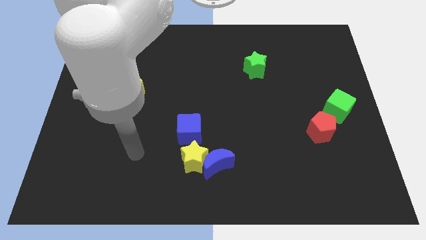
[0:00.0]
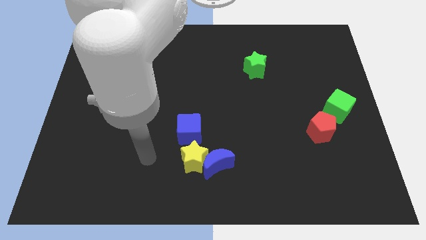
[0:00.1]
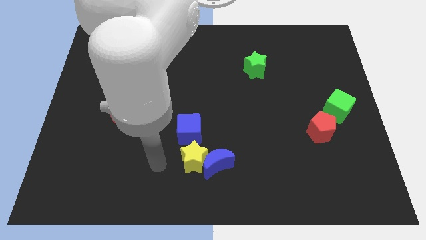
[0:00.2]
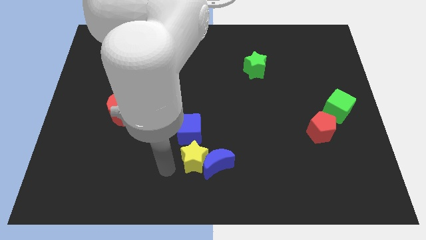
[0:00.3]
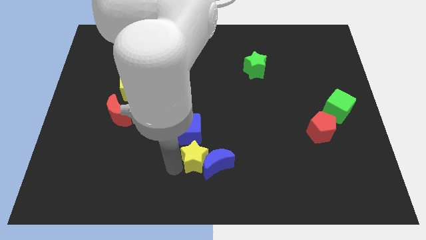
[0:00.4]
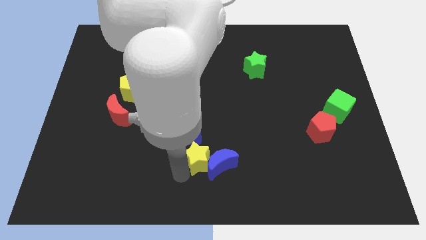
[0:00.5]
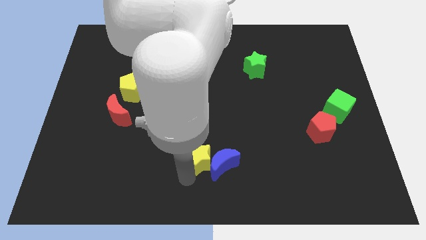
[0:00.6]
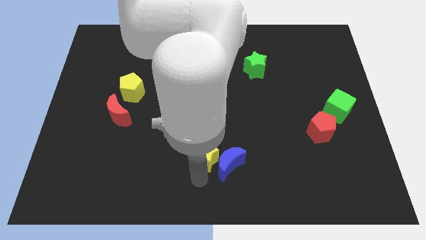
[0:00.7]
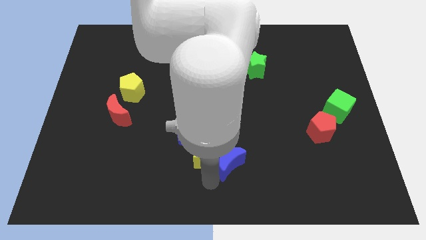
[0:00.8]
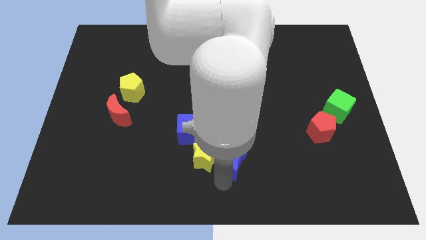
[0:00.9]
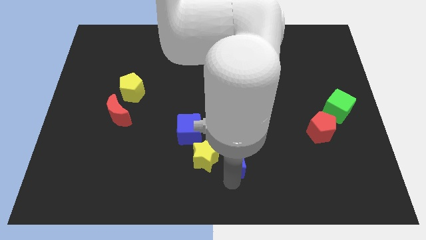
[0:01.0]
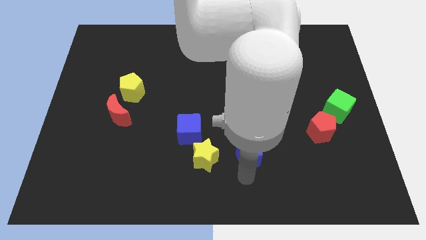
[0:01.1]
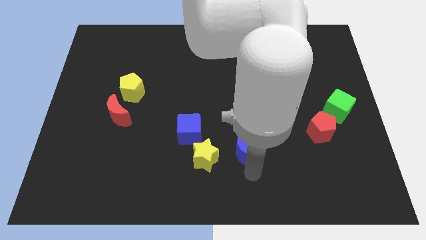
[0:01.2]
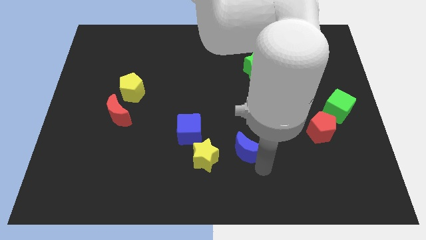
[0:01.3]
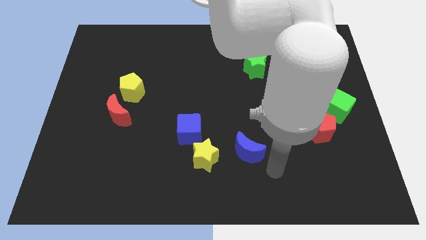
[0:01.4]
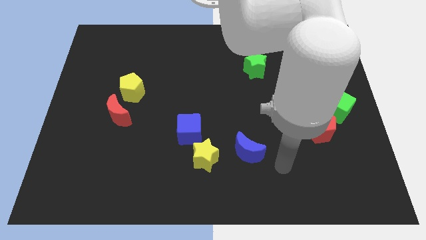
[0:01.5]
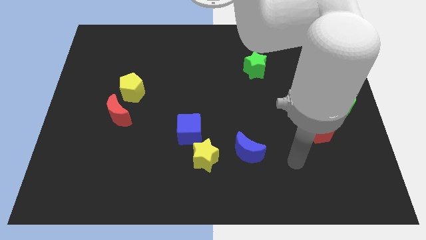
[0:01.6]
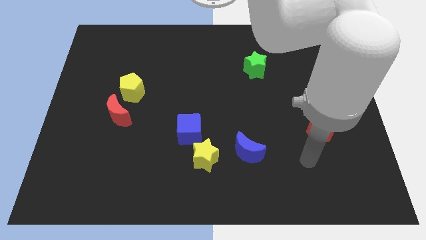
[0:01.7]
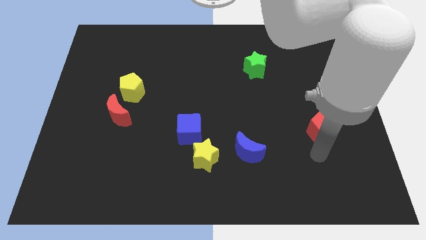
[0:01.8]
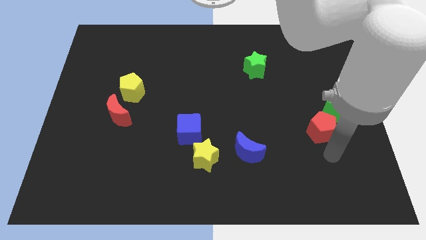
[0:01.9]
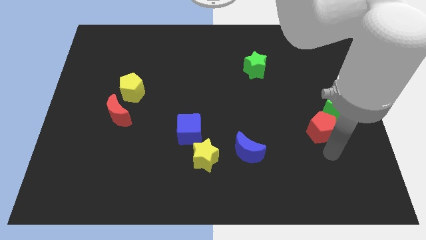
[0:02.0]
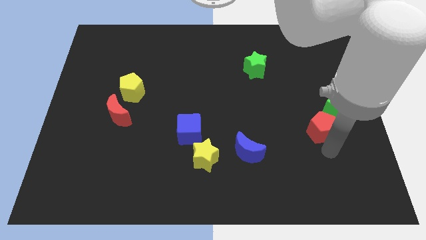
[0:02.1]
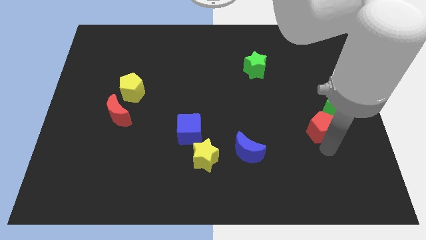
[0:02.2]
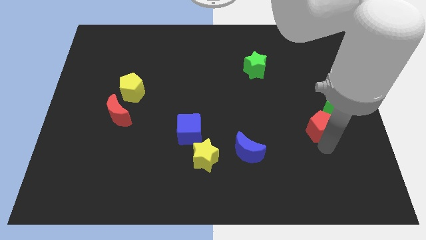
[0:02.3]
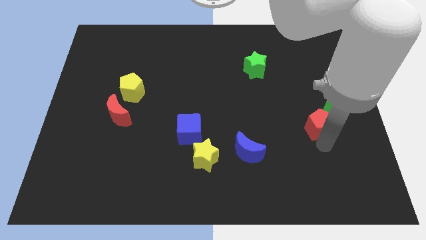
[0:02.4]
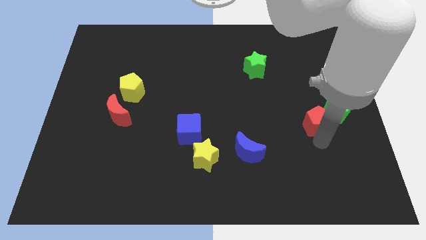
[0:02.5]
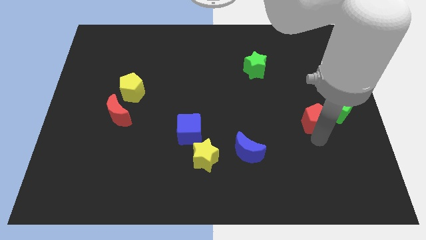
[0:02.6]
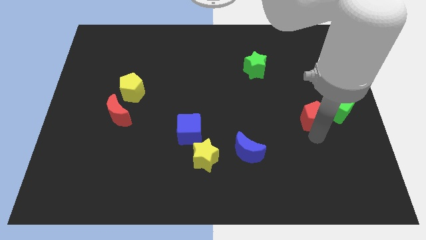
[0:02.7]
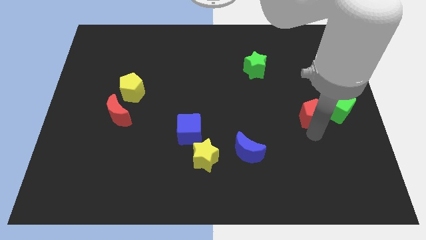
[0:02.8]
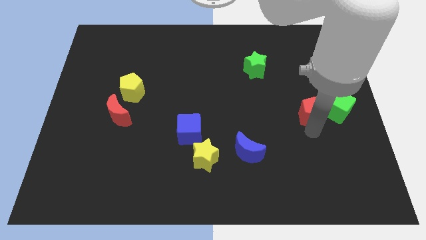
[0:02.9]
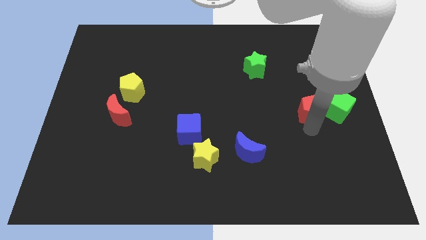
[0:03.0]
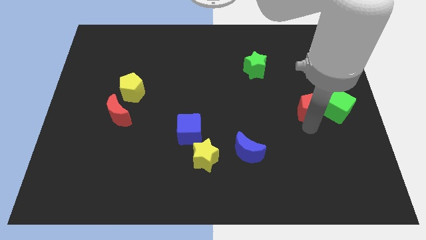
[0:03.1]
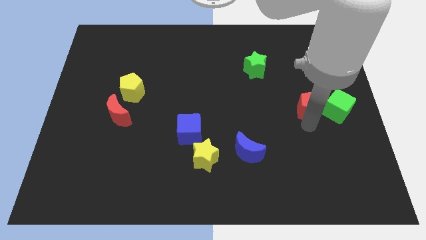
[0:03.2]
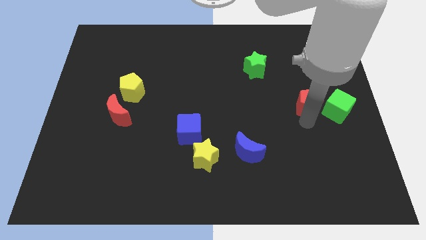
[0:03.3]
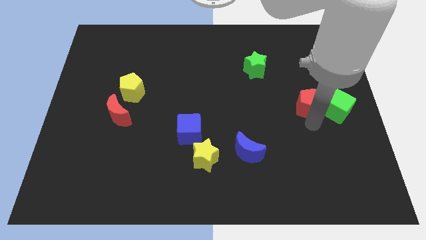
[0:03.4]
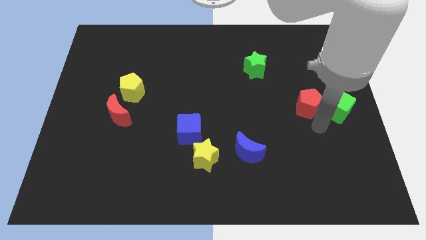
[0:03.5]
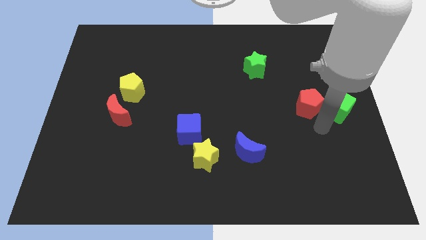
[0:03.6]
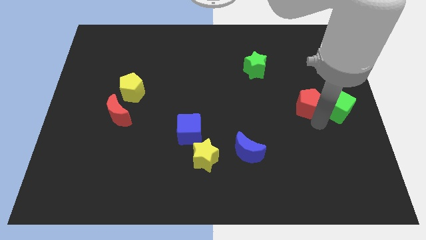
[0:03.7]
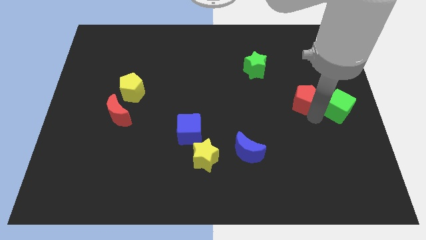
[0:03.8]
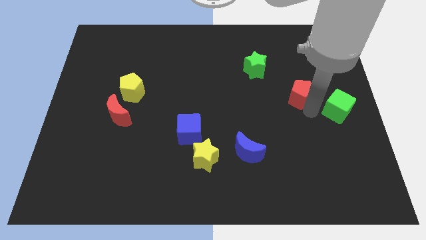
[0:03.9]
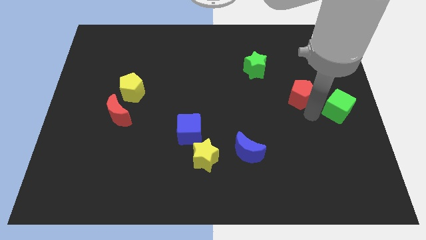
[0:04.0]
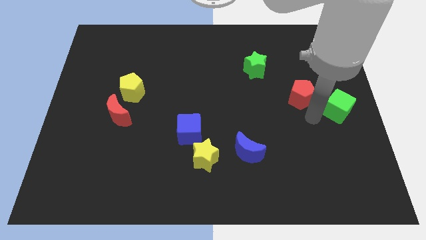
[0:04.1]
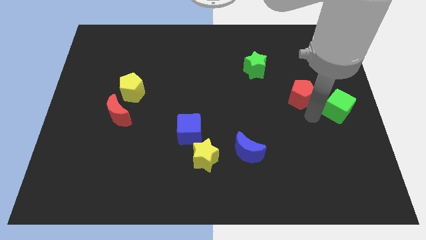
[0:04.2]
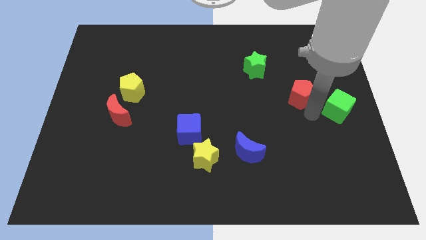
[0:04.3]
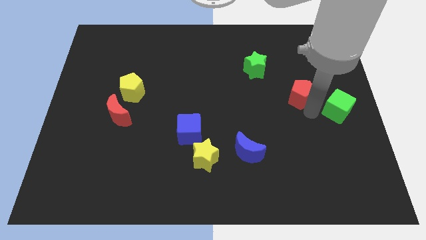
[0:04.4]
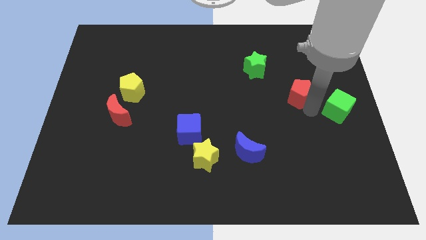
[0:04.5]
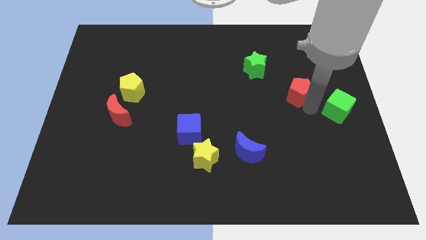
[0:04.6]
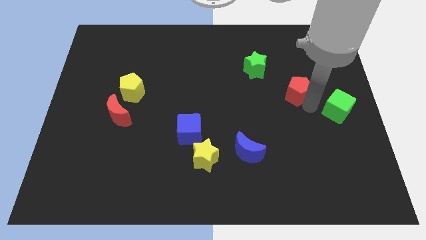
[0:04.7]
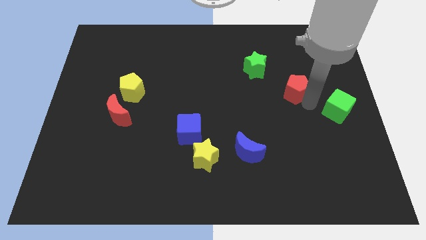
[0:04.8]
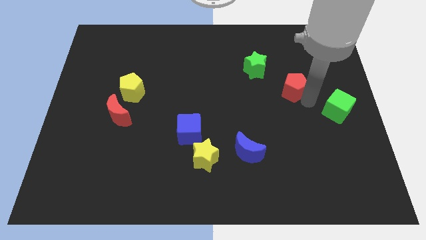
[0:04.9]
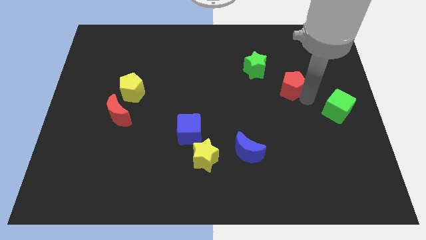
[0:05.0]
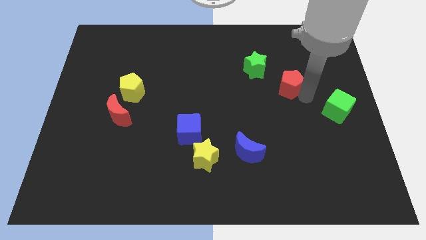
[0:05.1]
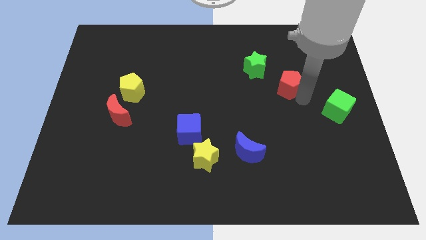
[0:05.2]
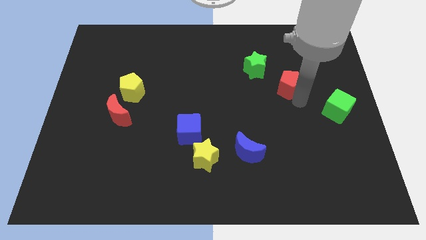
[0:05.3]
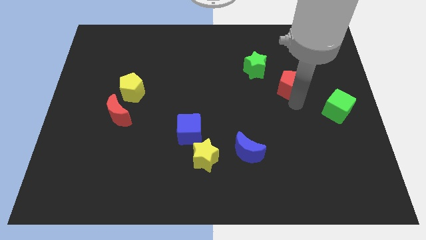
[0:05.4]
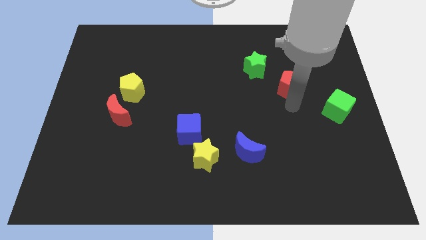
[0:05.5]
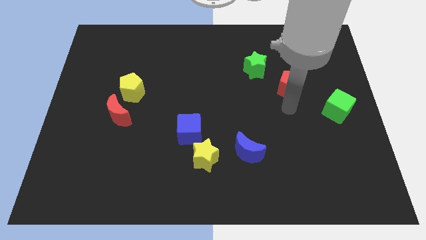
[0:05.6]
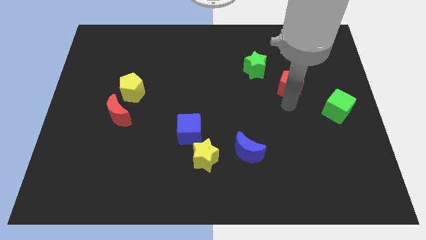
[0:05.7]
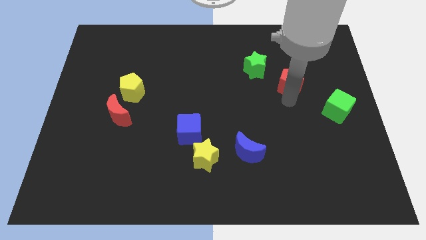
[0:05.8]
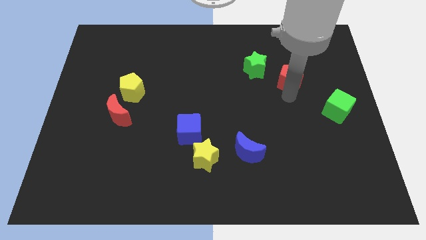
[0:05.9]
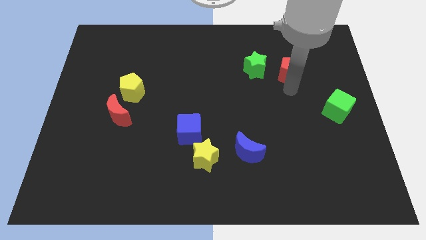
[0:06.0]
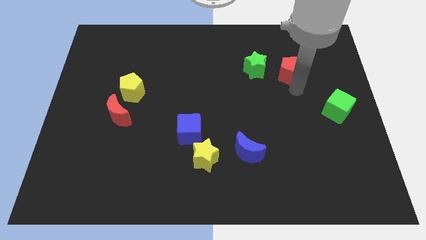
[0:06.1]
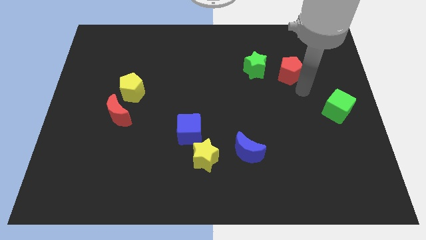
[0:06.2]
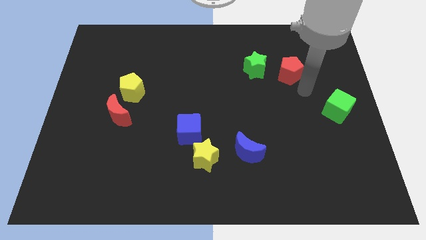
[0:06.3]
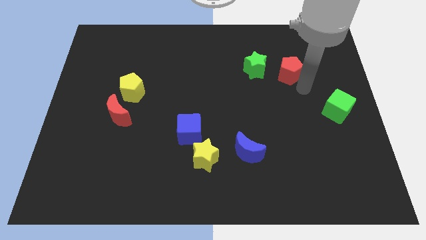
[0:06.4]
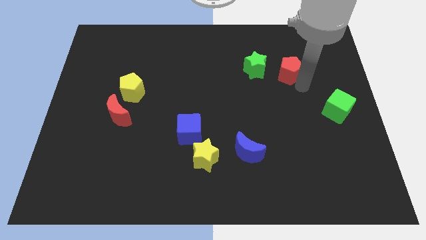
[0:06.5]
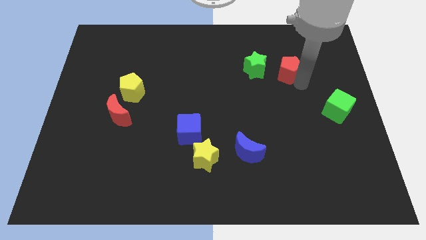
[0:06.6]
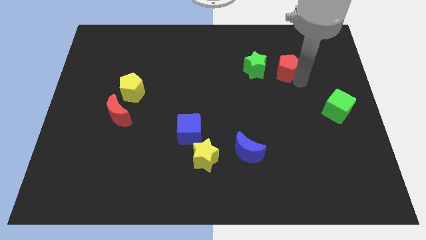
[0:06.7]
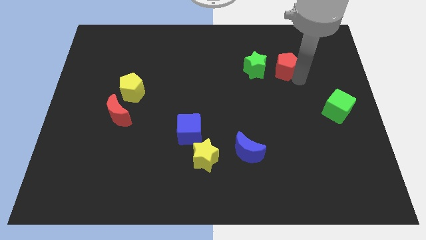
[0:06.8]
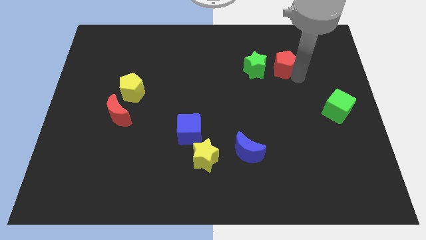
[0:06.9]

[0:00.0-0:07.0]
move the red pentagon to the top right side of the green star

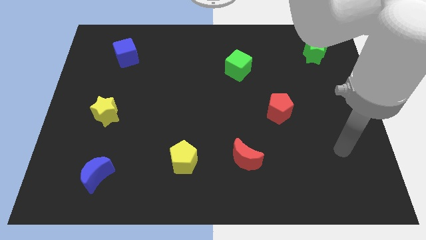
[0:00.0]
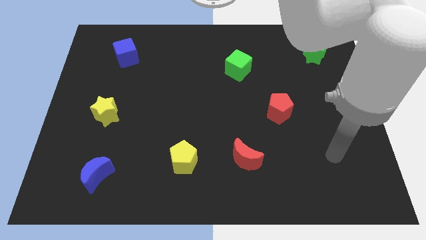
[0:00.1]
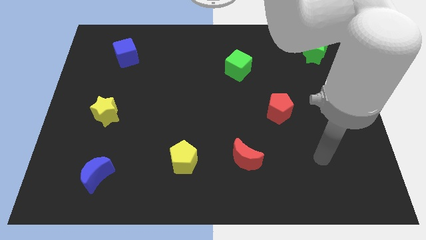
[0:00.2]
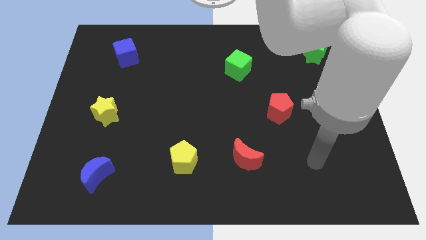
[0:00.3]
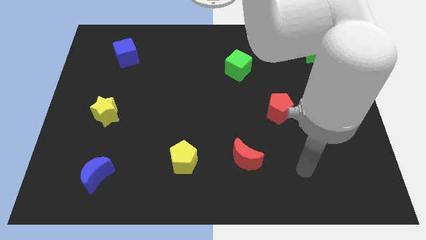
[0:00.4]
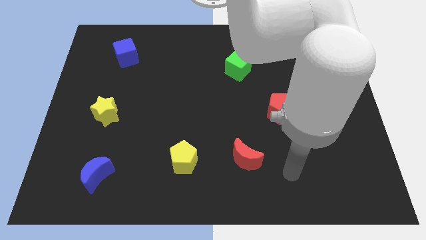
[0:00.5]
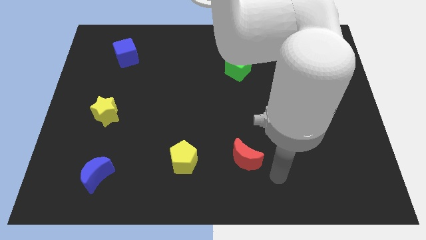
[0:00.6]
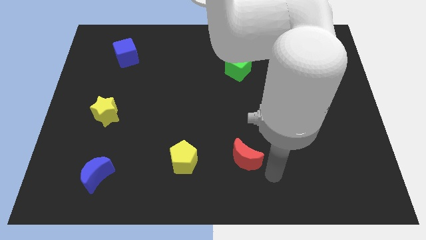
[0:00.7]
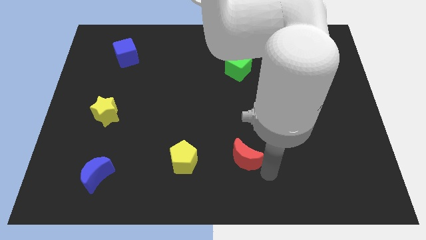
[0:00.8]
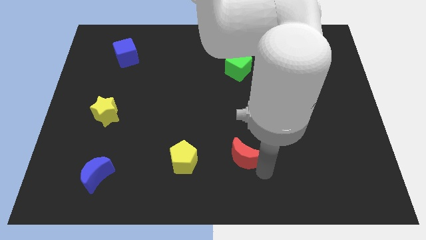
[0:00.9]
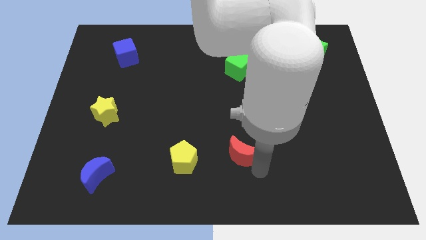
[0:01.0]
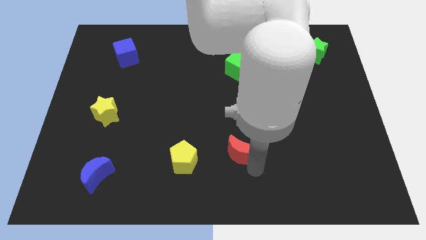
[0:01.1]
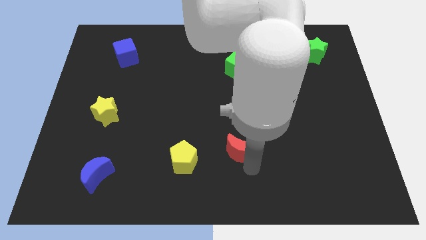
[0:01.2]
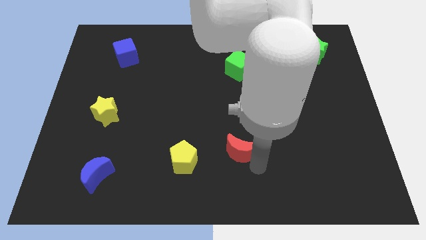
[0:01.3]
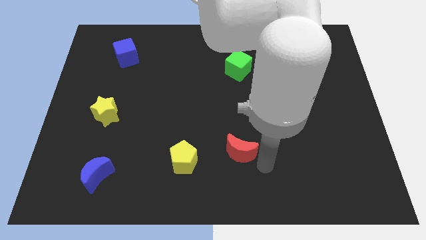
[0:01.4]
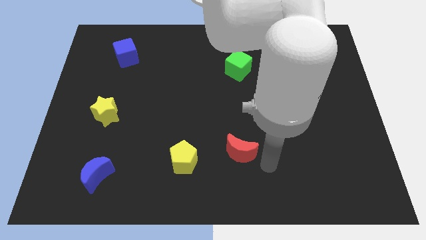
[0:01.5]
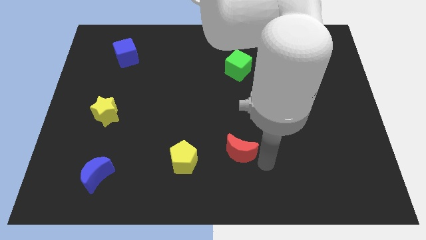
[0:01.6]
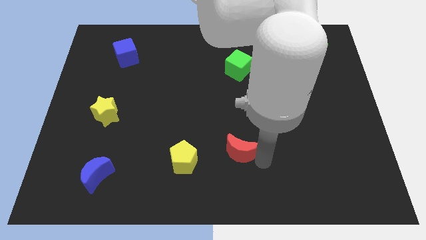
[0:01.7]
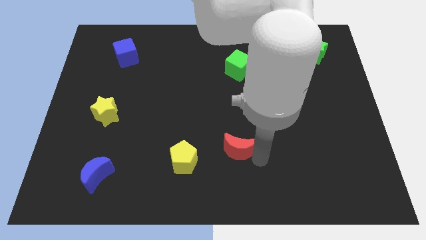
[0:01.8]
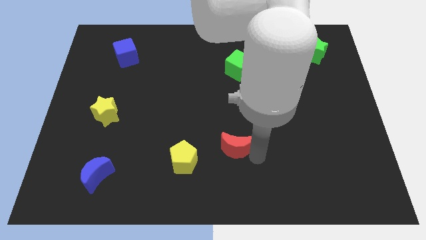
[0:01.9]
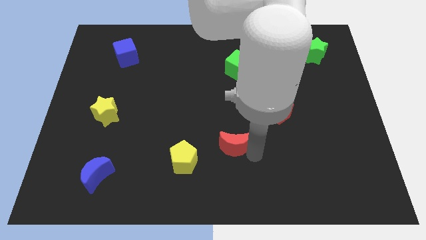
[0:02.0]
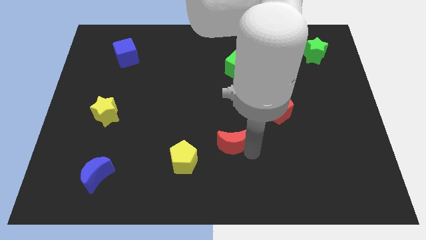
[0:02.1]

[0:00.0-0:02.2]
slide the red moon diagonally up and to the right of the yellow pentagon
